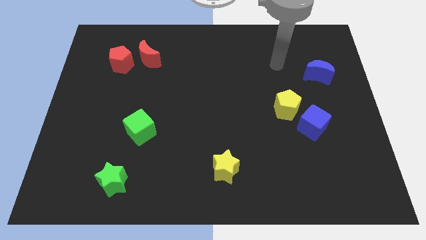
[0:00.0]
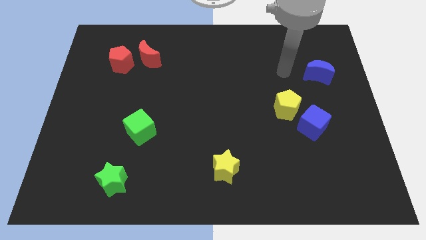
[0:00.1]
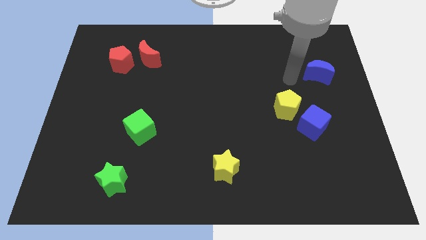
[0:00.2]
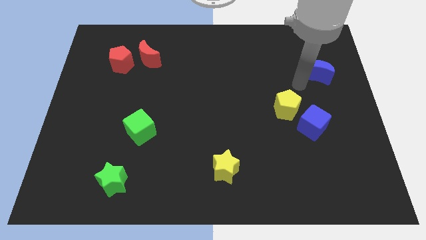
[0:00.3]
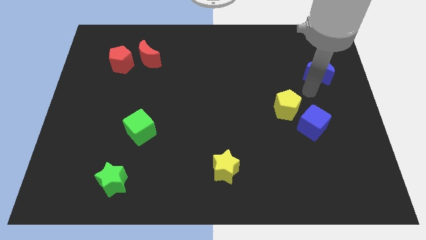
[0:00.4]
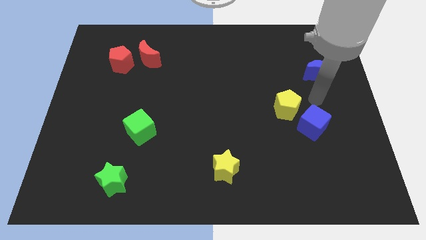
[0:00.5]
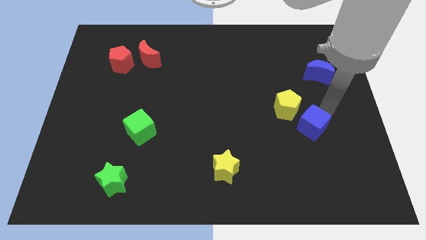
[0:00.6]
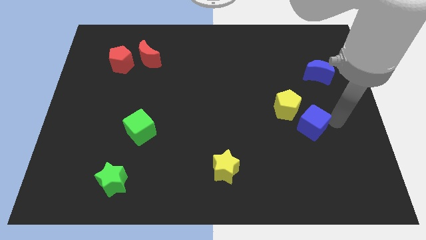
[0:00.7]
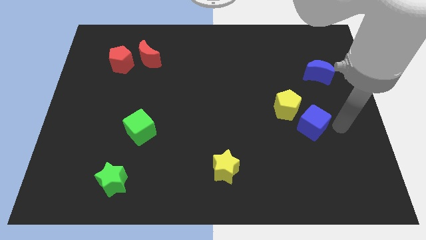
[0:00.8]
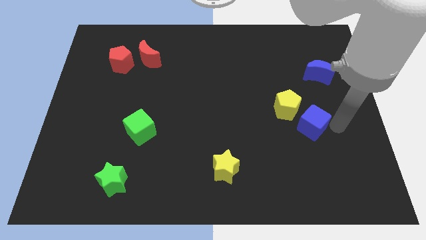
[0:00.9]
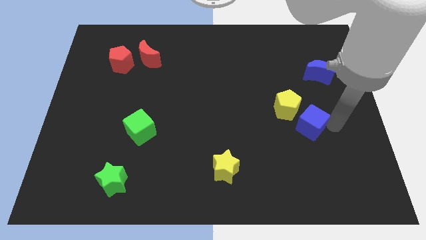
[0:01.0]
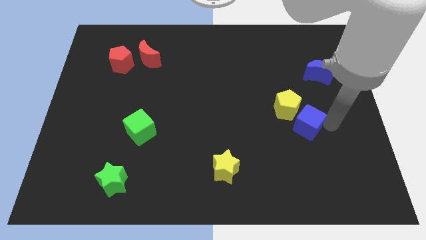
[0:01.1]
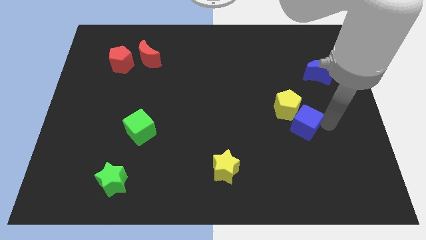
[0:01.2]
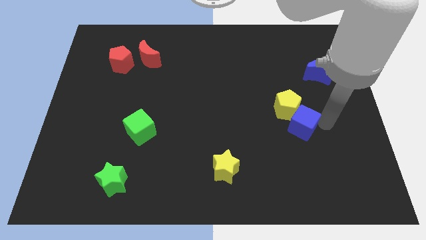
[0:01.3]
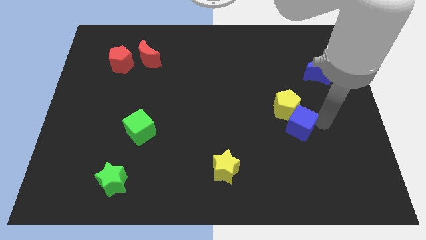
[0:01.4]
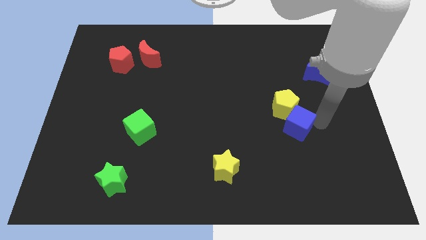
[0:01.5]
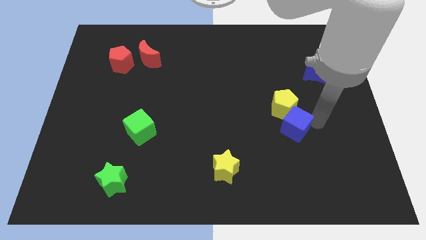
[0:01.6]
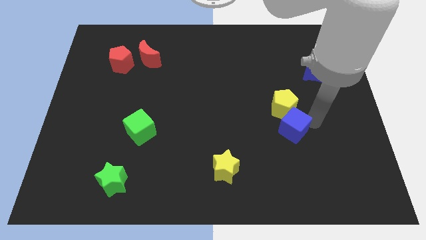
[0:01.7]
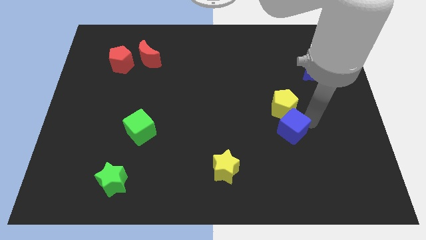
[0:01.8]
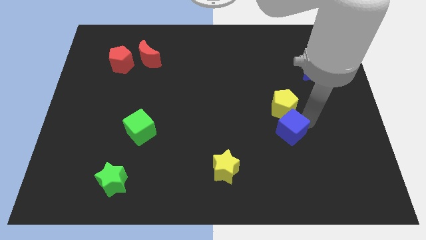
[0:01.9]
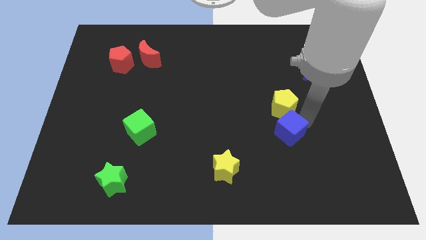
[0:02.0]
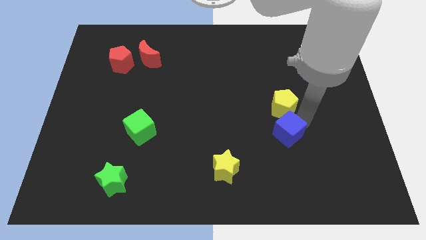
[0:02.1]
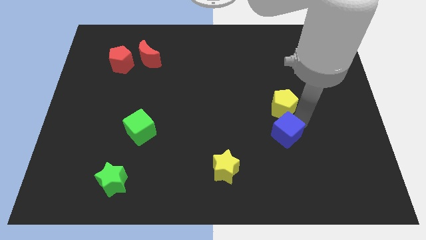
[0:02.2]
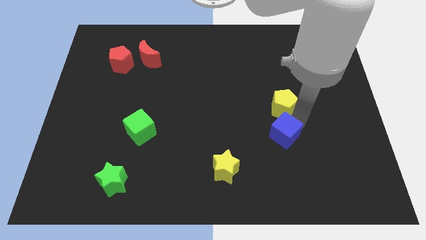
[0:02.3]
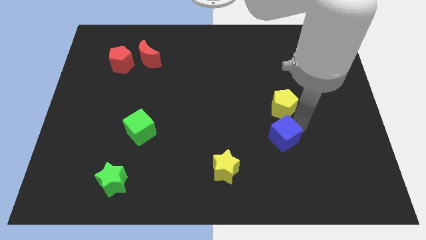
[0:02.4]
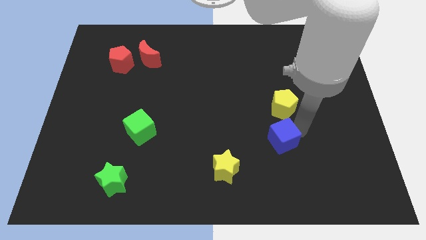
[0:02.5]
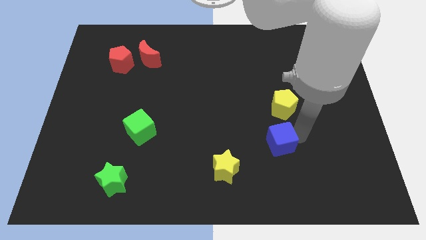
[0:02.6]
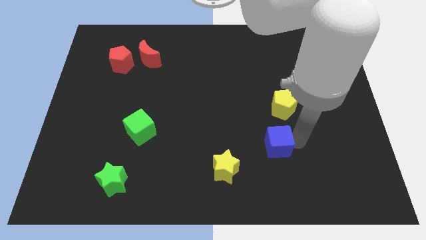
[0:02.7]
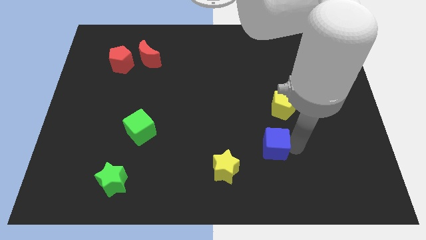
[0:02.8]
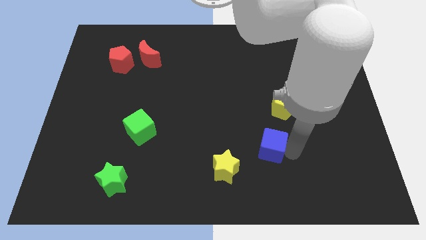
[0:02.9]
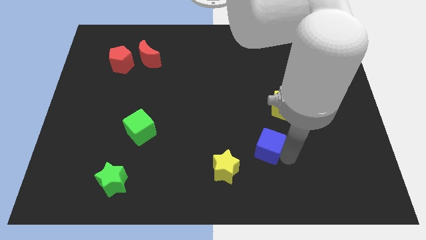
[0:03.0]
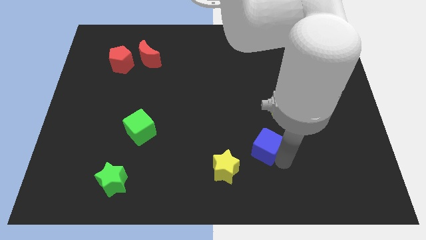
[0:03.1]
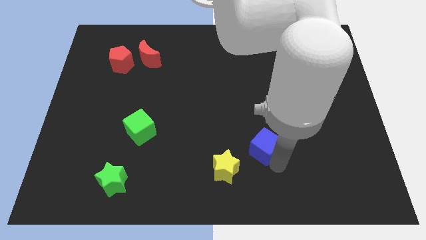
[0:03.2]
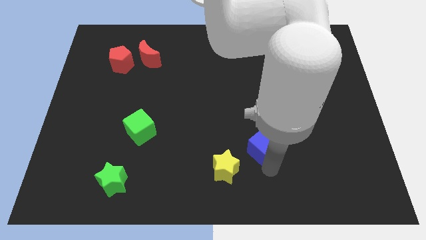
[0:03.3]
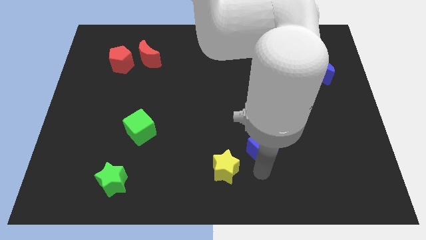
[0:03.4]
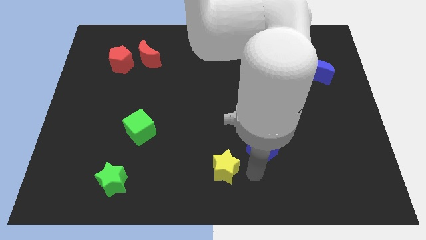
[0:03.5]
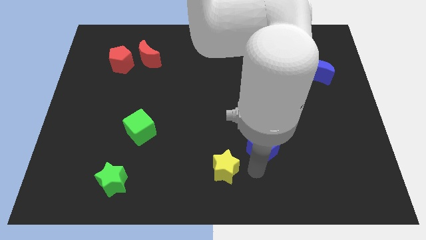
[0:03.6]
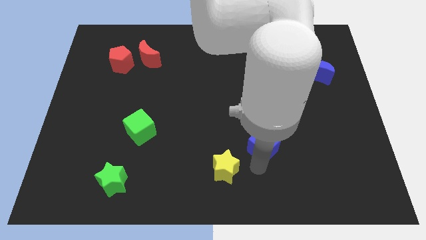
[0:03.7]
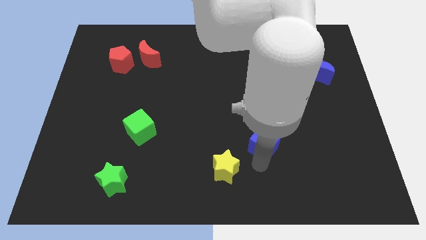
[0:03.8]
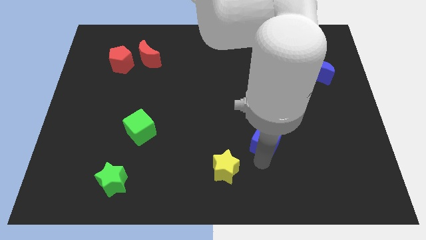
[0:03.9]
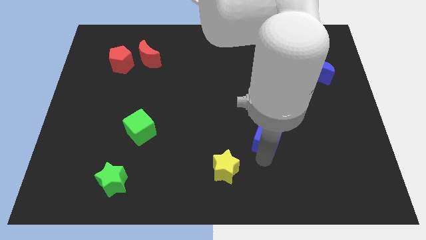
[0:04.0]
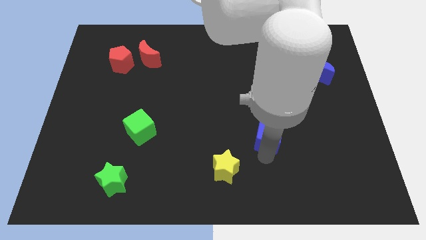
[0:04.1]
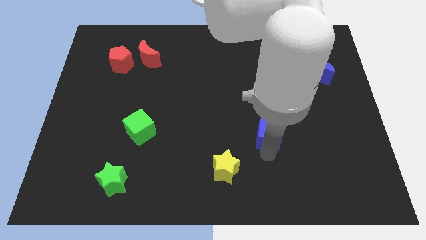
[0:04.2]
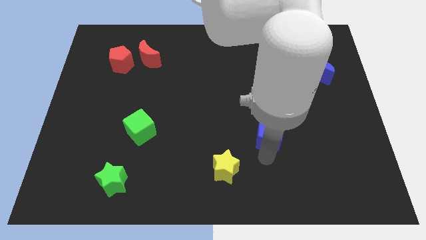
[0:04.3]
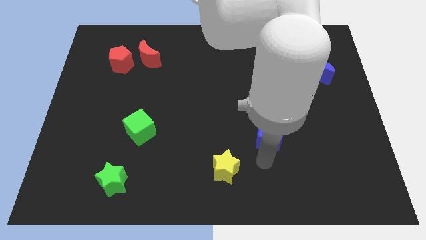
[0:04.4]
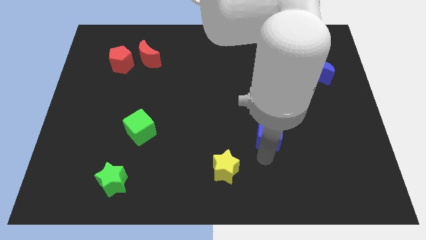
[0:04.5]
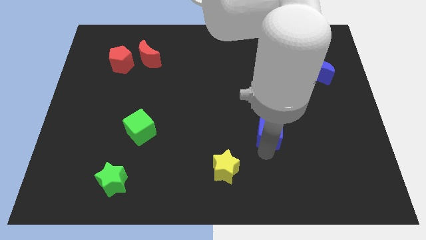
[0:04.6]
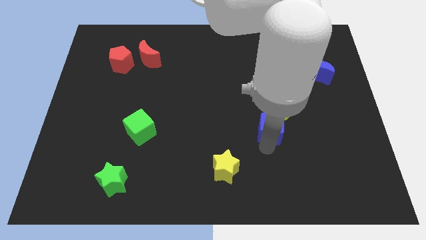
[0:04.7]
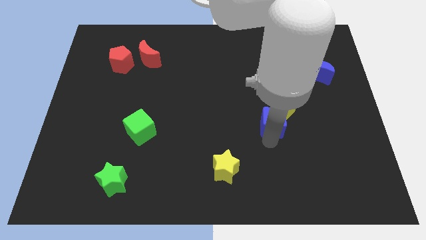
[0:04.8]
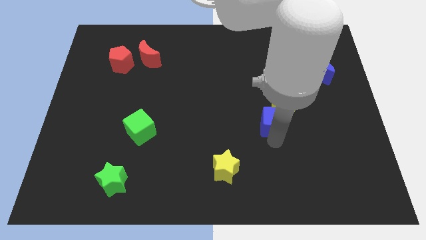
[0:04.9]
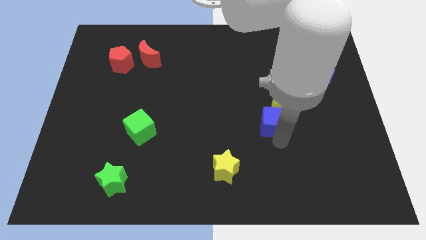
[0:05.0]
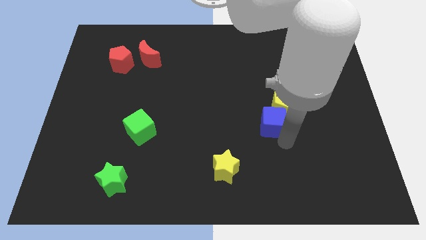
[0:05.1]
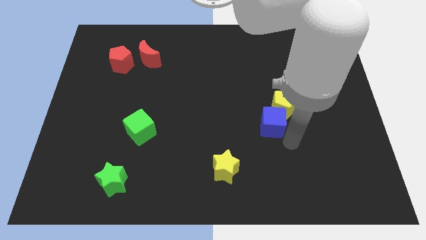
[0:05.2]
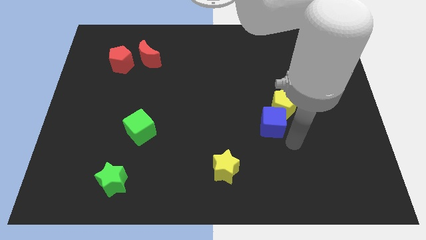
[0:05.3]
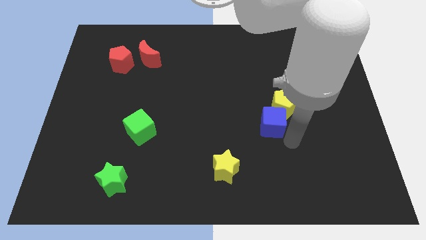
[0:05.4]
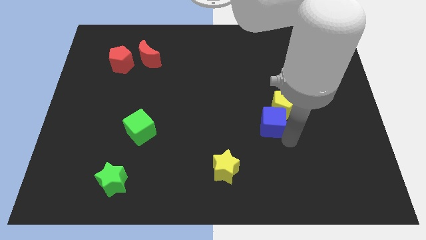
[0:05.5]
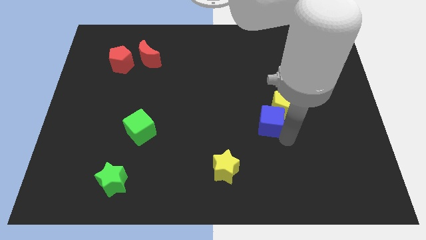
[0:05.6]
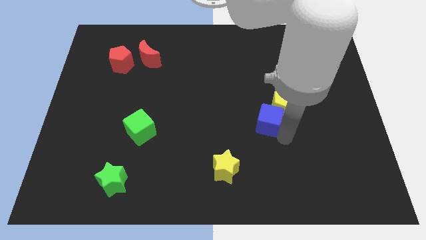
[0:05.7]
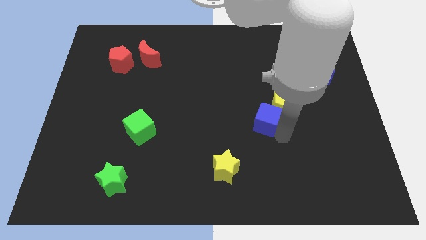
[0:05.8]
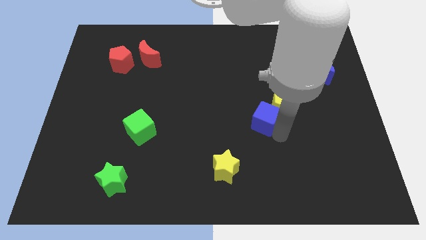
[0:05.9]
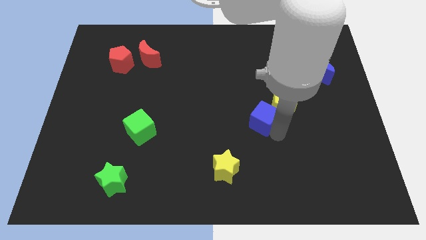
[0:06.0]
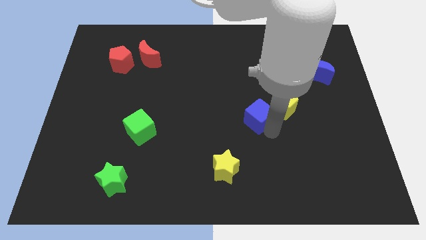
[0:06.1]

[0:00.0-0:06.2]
slide the blue cube to the center of the board
